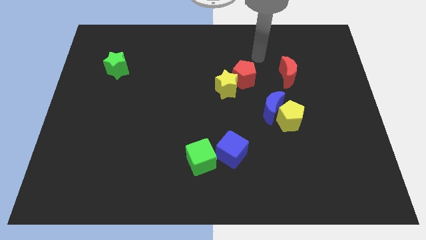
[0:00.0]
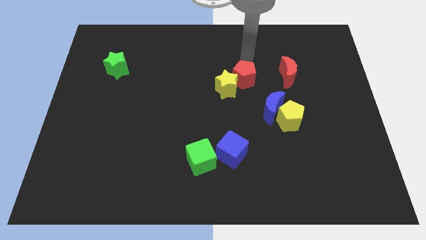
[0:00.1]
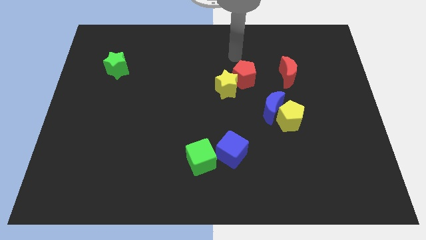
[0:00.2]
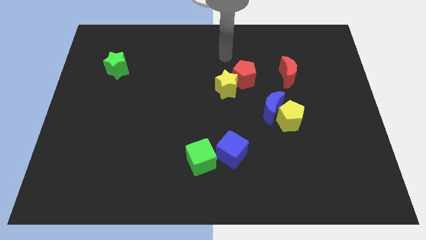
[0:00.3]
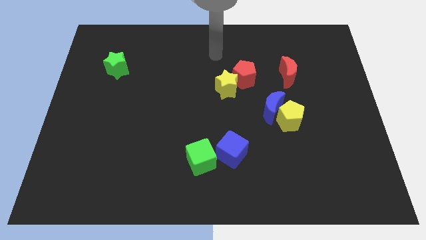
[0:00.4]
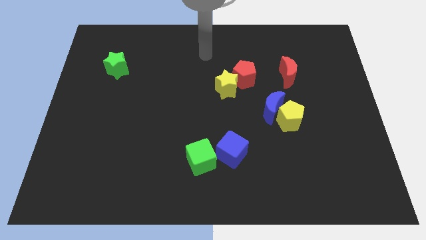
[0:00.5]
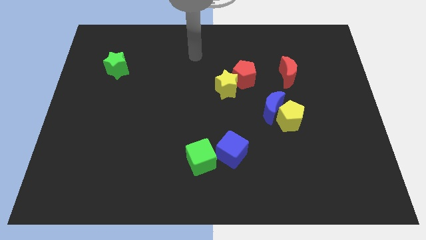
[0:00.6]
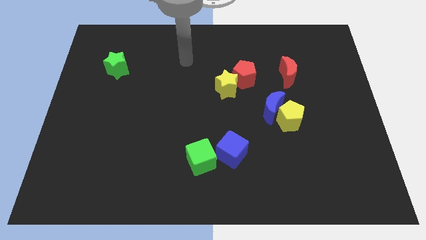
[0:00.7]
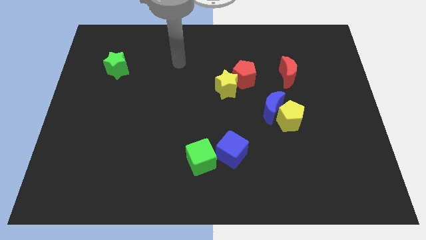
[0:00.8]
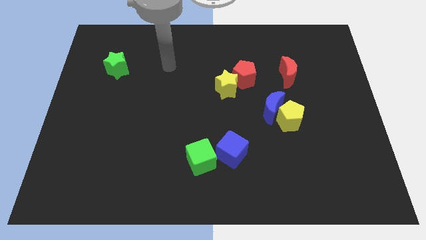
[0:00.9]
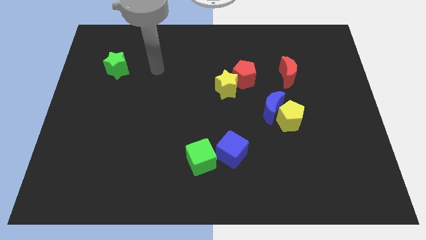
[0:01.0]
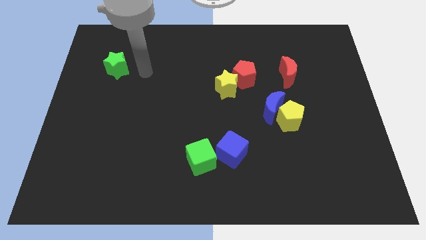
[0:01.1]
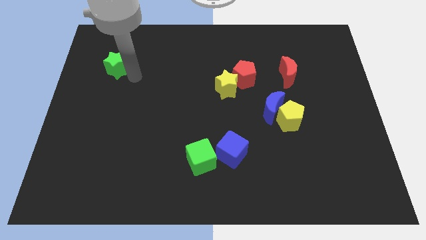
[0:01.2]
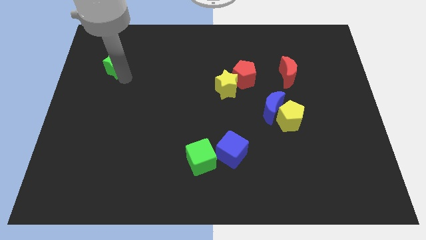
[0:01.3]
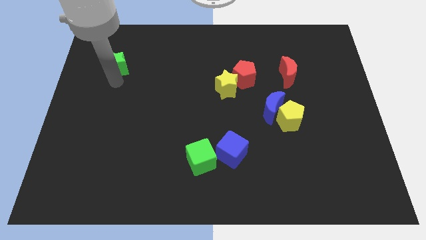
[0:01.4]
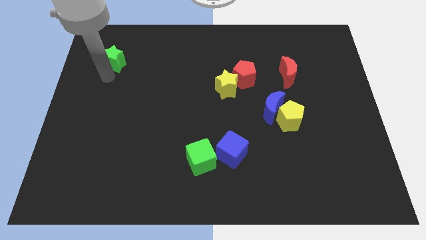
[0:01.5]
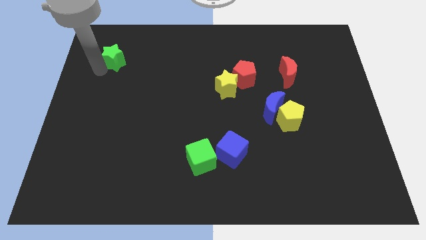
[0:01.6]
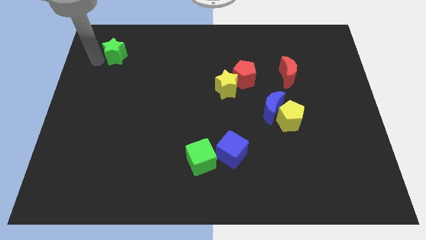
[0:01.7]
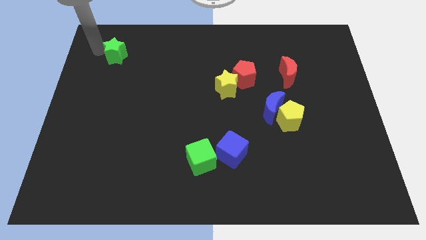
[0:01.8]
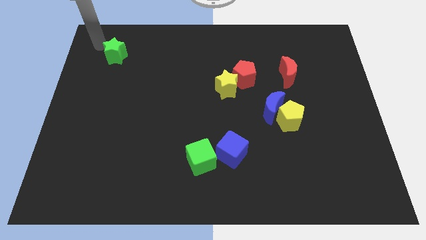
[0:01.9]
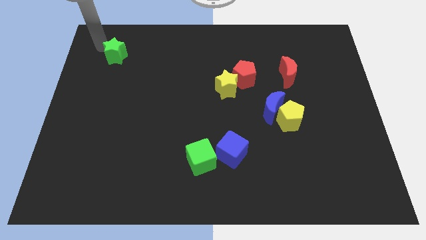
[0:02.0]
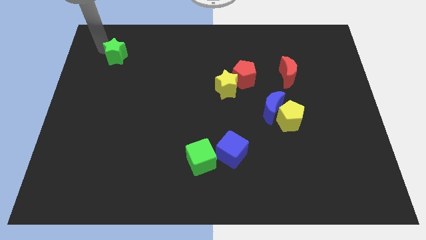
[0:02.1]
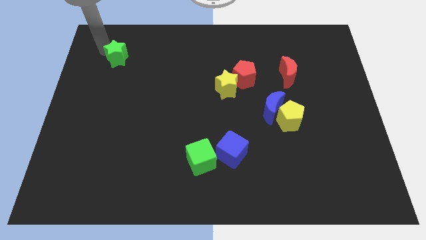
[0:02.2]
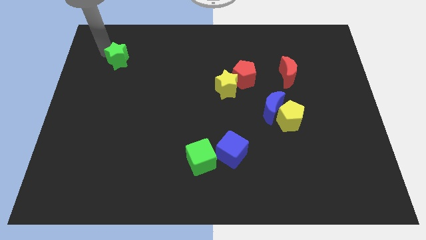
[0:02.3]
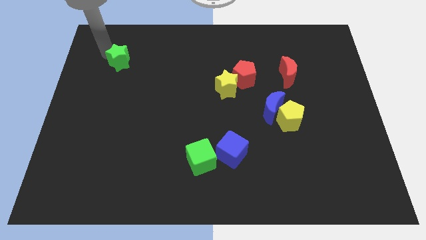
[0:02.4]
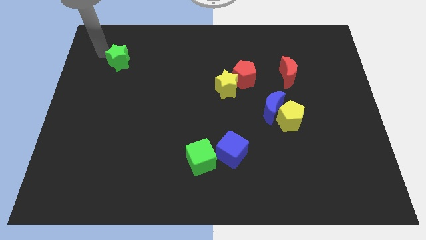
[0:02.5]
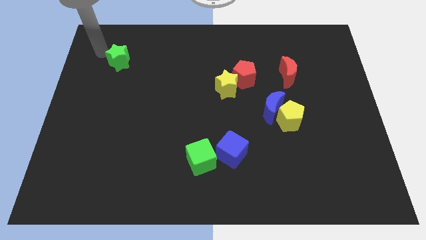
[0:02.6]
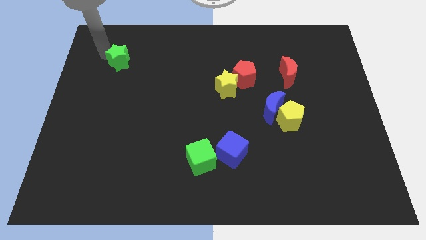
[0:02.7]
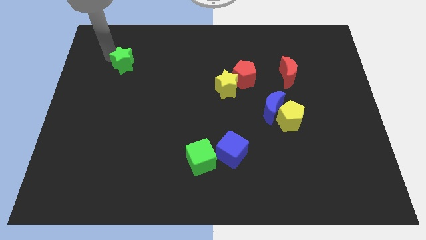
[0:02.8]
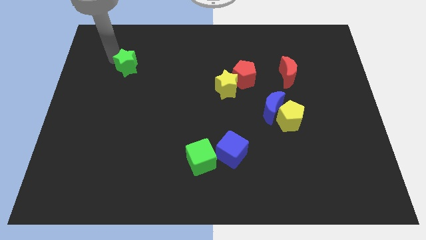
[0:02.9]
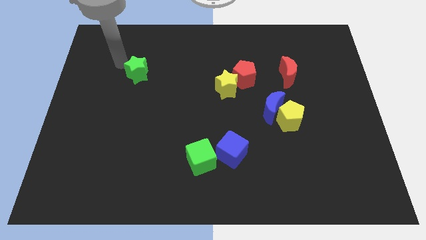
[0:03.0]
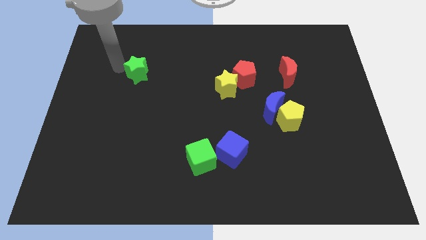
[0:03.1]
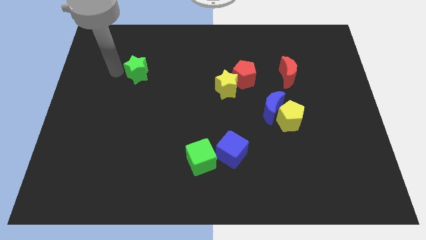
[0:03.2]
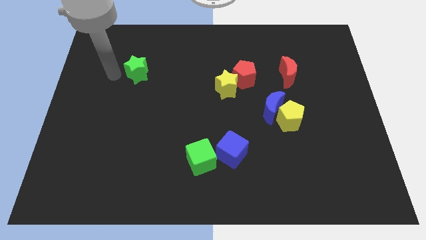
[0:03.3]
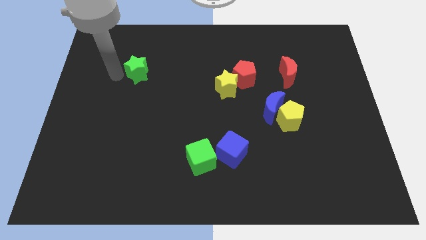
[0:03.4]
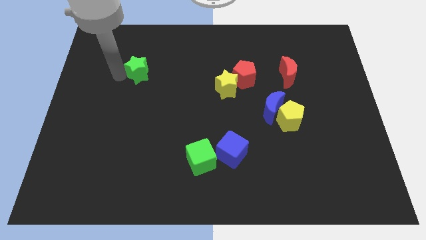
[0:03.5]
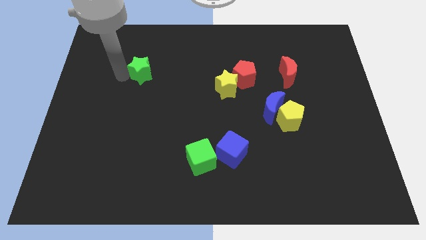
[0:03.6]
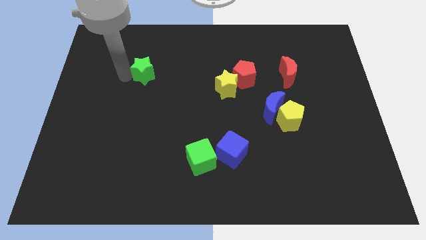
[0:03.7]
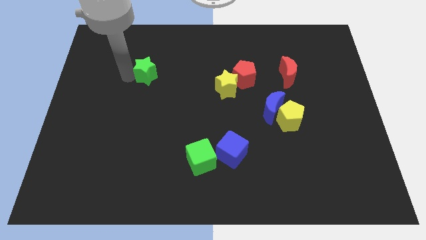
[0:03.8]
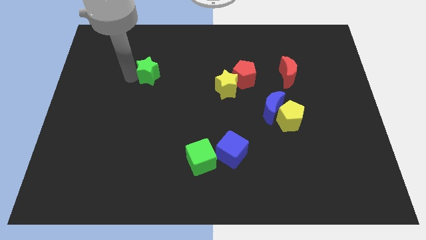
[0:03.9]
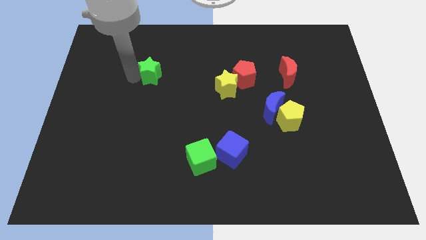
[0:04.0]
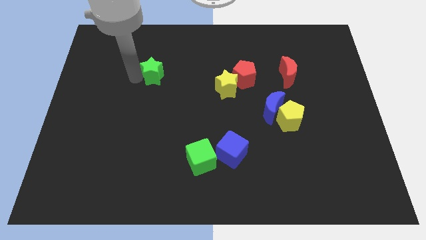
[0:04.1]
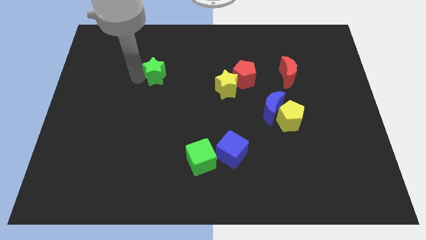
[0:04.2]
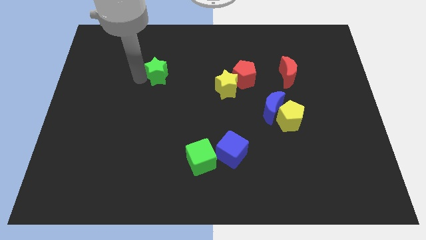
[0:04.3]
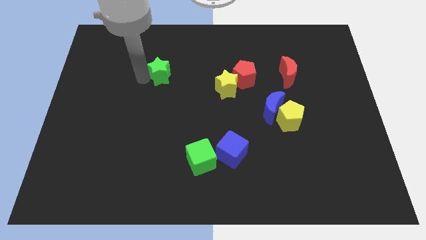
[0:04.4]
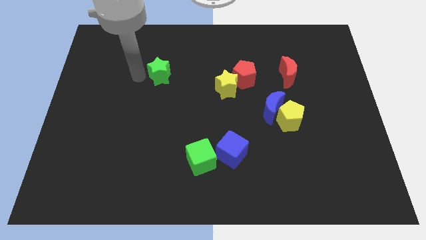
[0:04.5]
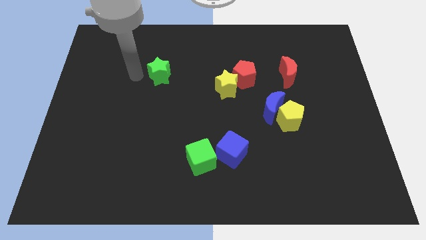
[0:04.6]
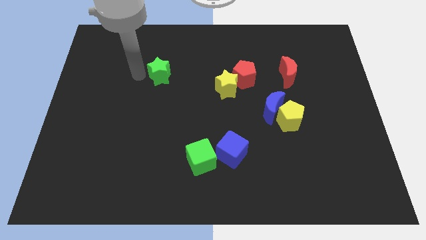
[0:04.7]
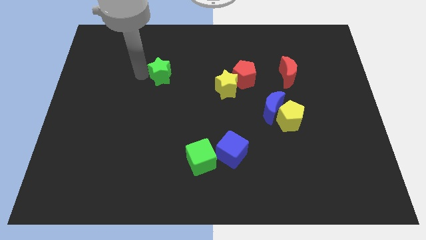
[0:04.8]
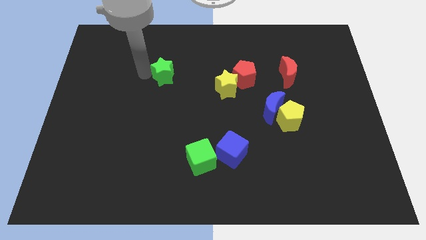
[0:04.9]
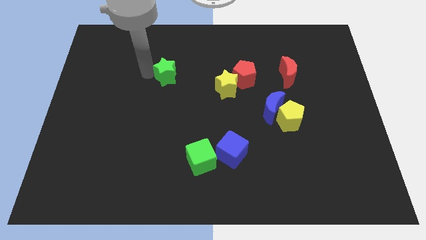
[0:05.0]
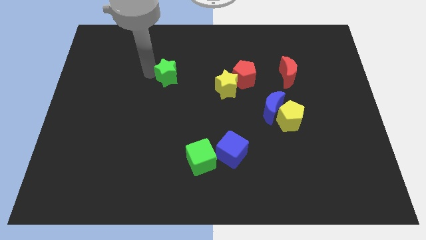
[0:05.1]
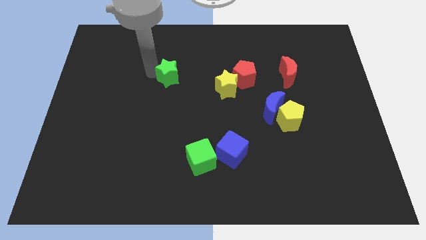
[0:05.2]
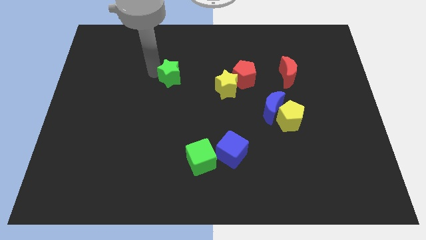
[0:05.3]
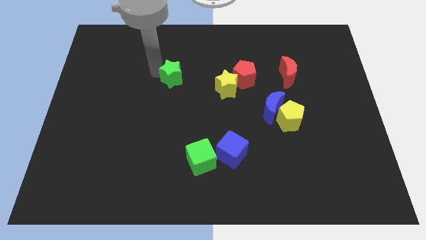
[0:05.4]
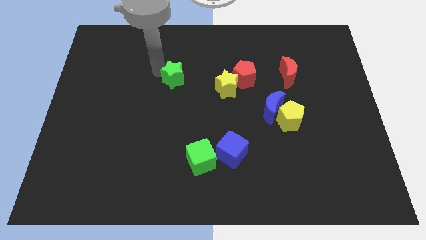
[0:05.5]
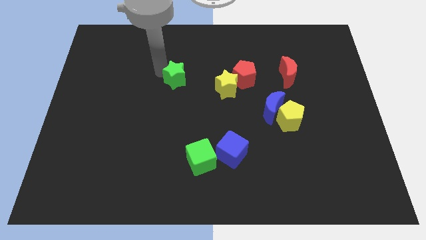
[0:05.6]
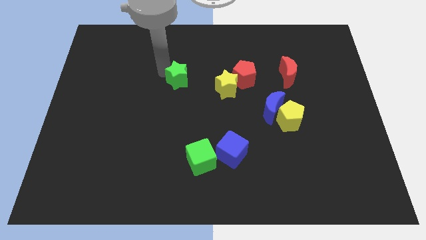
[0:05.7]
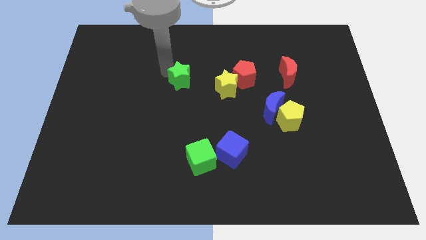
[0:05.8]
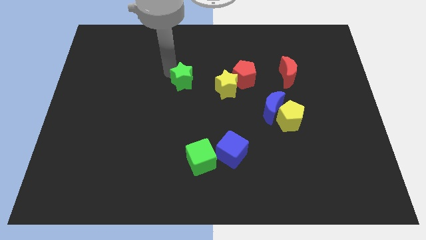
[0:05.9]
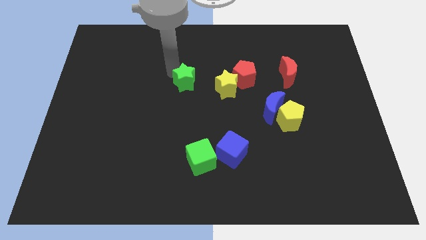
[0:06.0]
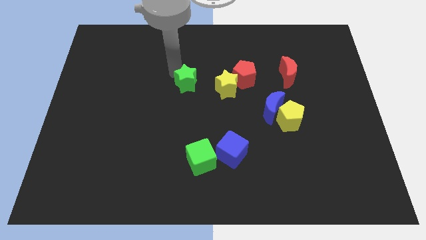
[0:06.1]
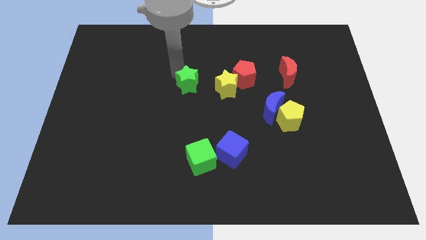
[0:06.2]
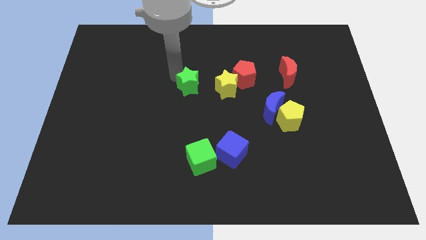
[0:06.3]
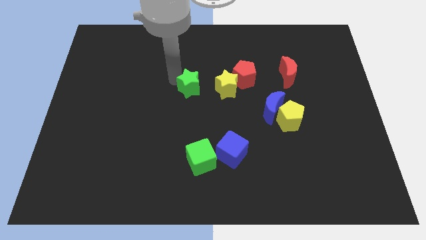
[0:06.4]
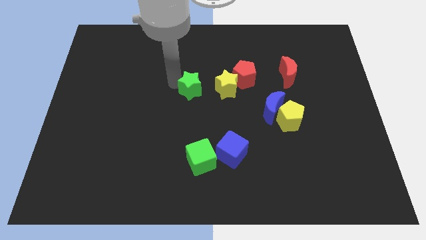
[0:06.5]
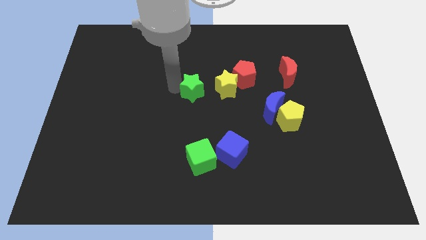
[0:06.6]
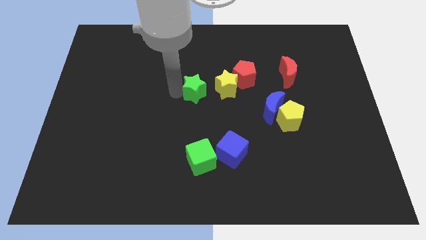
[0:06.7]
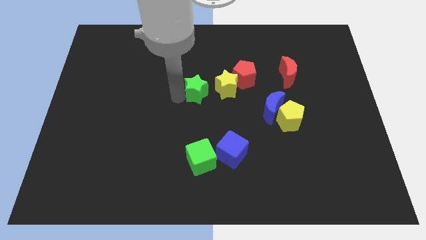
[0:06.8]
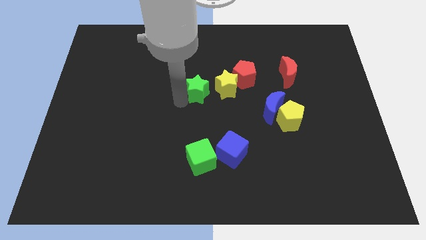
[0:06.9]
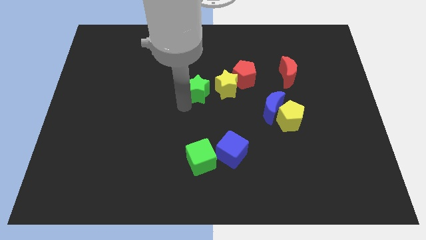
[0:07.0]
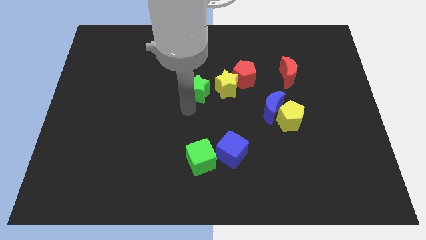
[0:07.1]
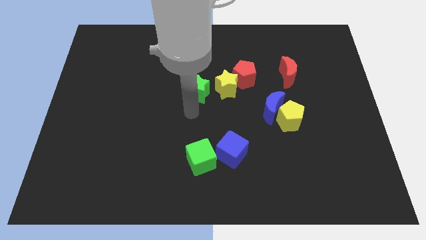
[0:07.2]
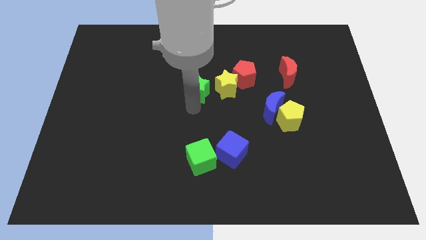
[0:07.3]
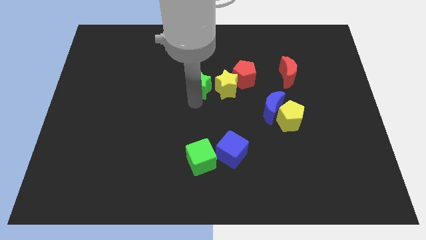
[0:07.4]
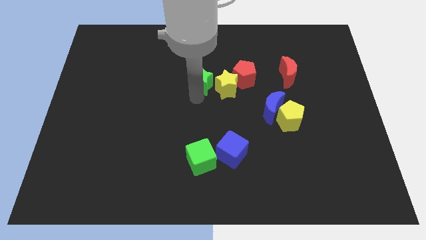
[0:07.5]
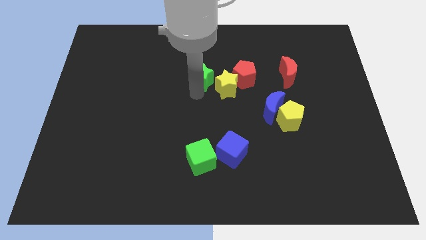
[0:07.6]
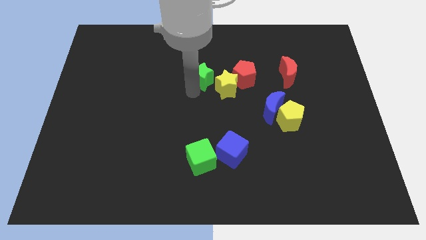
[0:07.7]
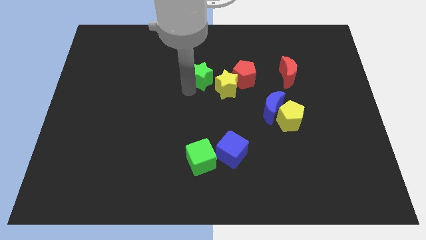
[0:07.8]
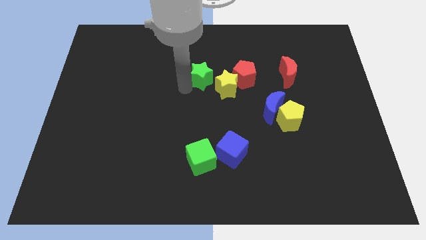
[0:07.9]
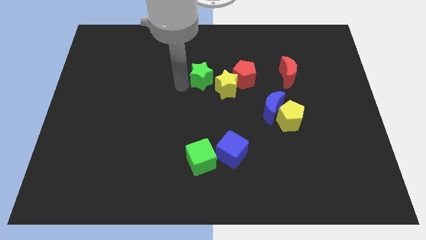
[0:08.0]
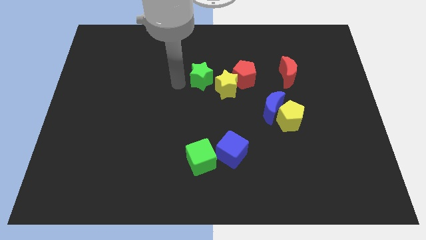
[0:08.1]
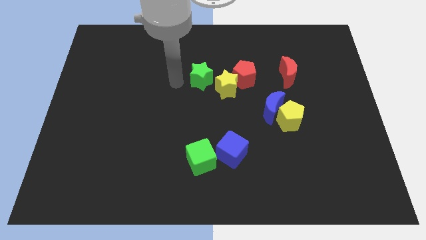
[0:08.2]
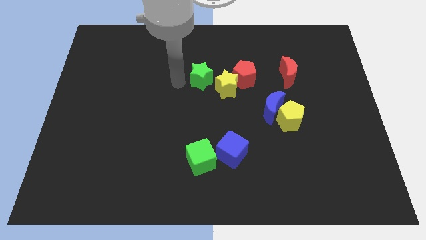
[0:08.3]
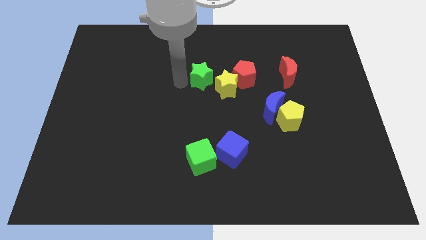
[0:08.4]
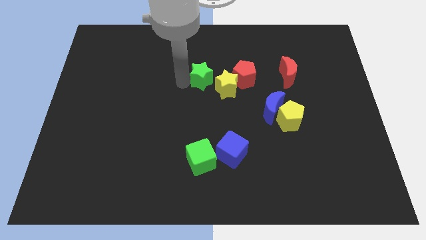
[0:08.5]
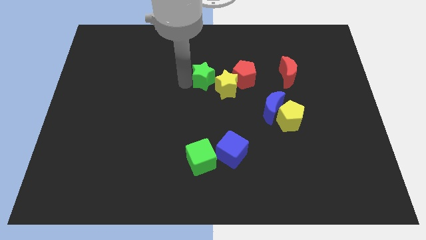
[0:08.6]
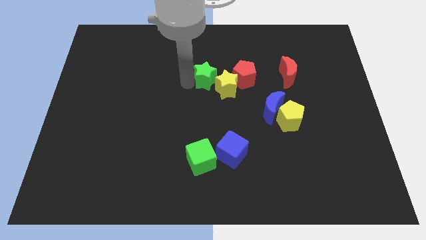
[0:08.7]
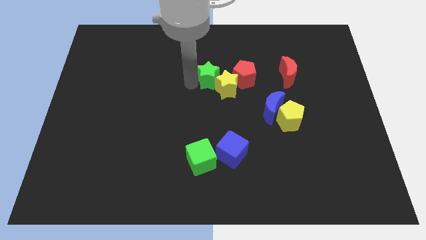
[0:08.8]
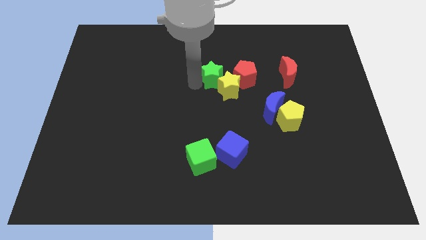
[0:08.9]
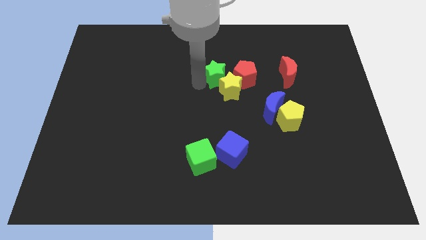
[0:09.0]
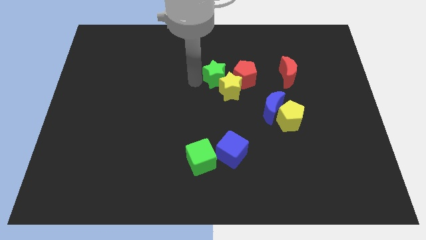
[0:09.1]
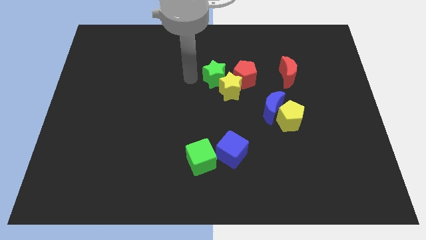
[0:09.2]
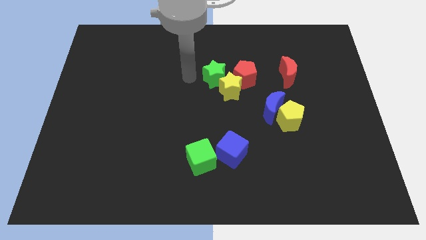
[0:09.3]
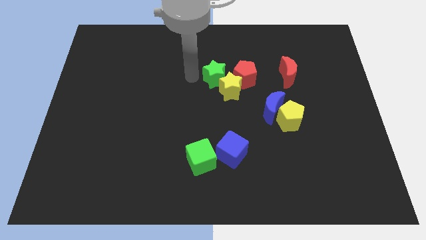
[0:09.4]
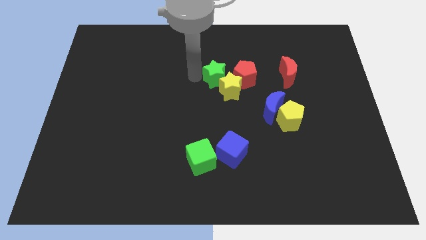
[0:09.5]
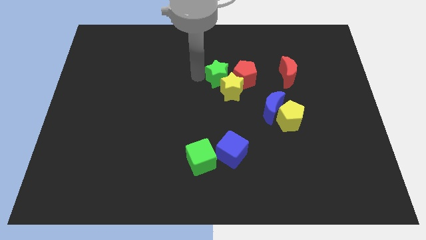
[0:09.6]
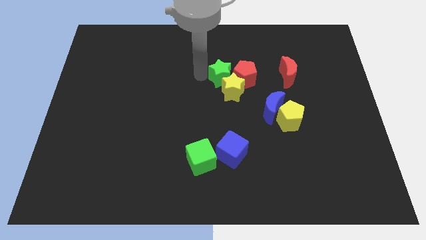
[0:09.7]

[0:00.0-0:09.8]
slide the green star to the red pentagon
